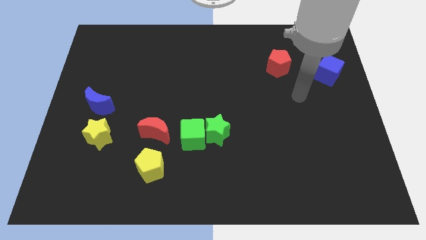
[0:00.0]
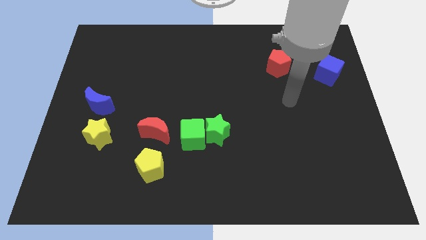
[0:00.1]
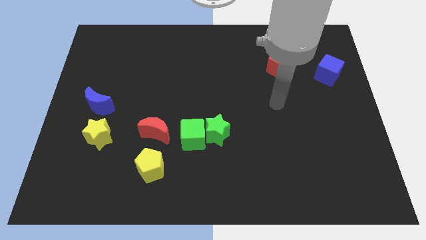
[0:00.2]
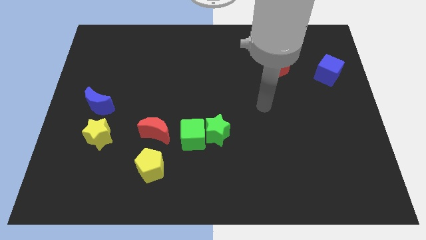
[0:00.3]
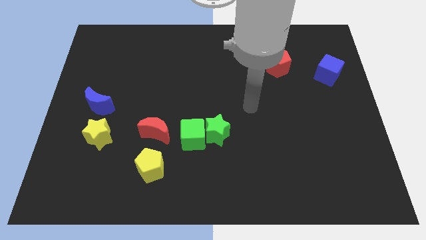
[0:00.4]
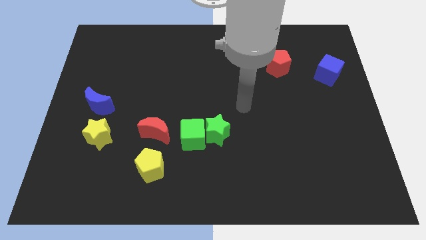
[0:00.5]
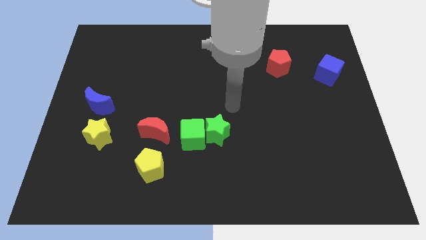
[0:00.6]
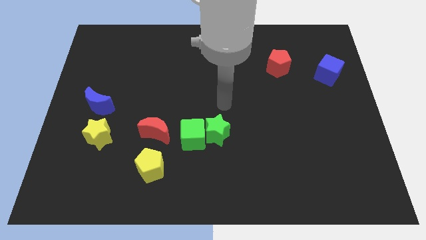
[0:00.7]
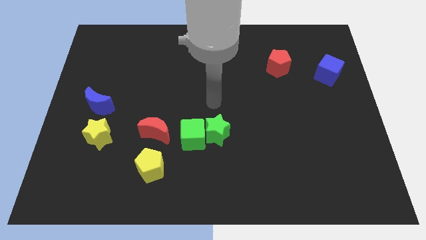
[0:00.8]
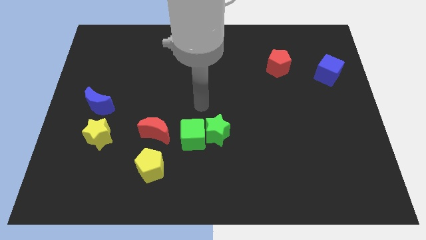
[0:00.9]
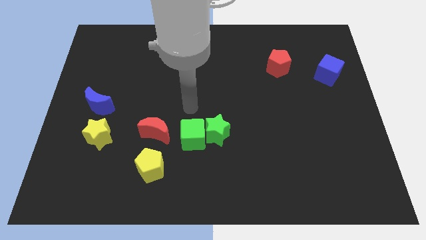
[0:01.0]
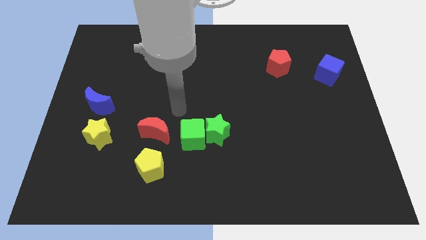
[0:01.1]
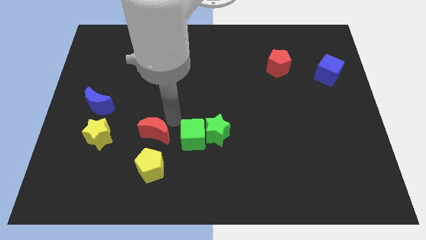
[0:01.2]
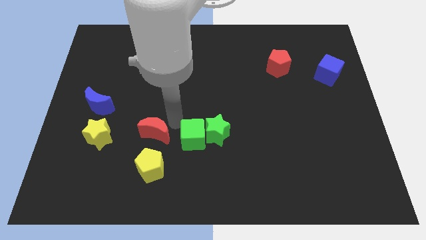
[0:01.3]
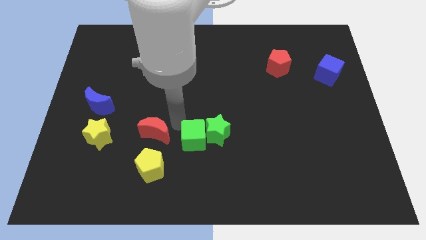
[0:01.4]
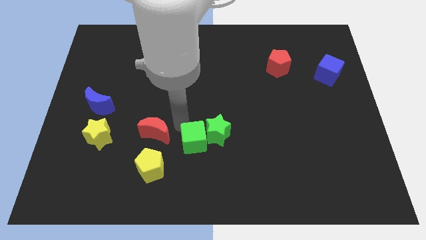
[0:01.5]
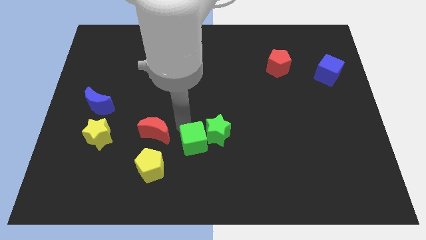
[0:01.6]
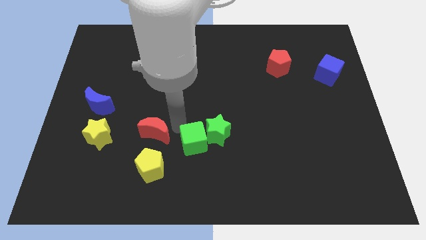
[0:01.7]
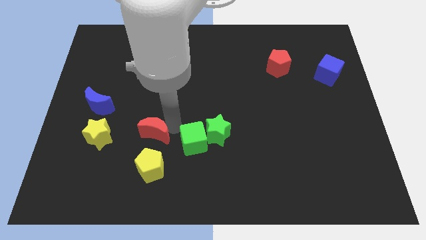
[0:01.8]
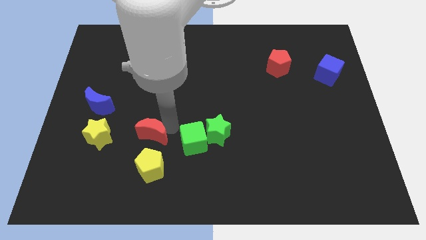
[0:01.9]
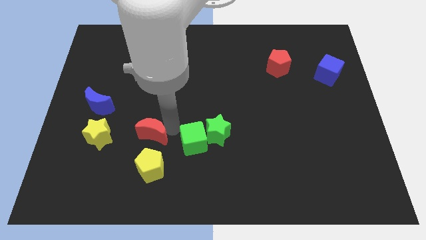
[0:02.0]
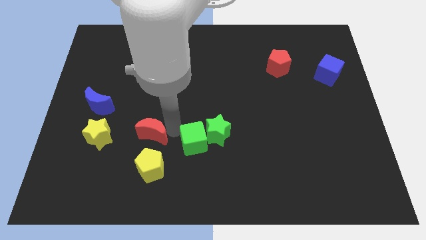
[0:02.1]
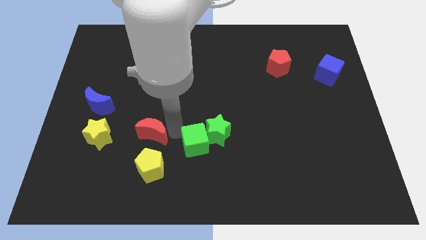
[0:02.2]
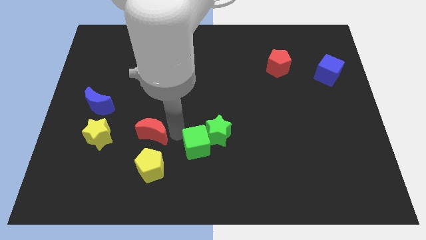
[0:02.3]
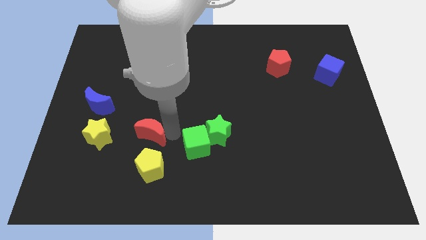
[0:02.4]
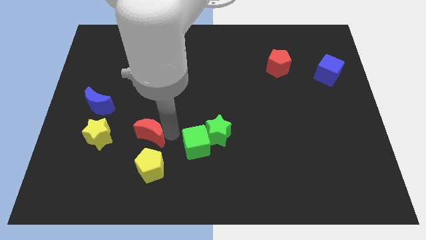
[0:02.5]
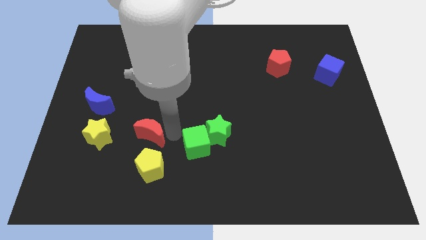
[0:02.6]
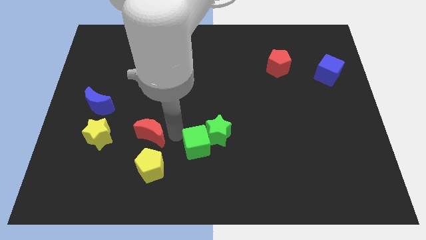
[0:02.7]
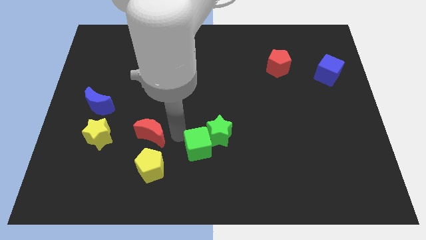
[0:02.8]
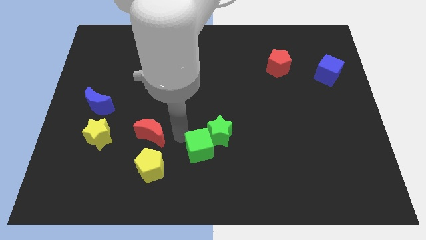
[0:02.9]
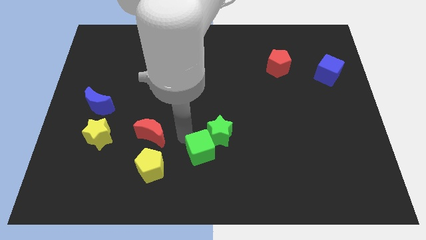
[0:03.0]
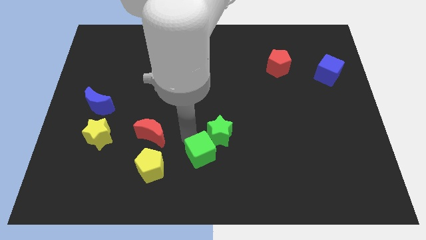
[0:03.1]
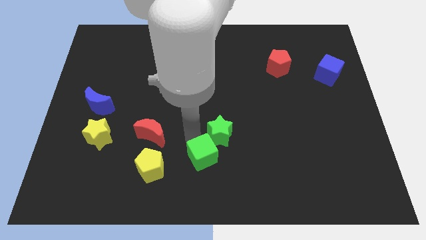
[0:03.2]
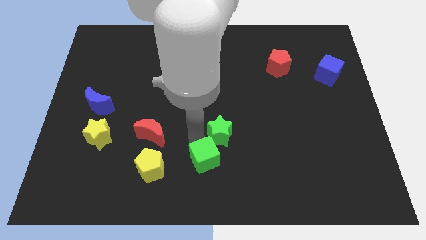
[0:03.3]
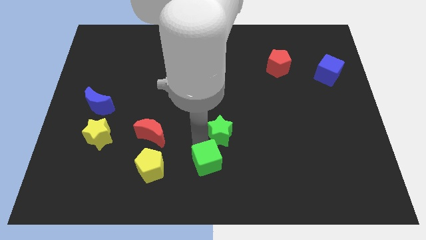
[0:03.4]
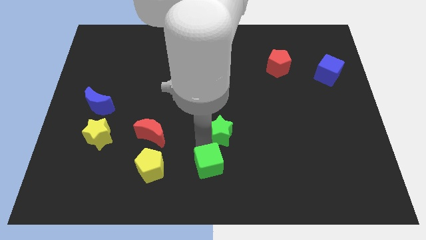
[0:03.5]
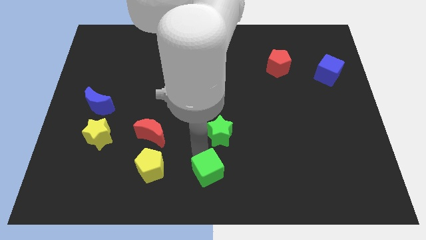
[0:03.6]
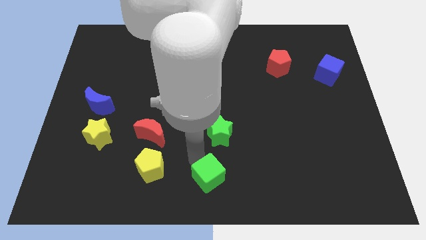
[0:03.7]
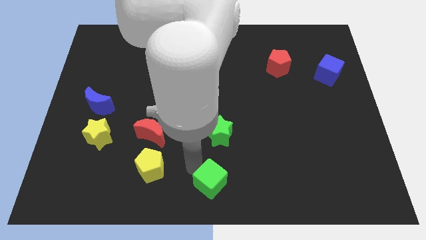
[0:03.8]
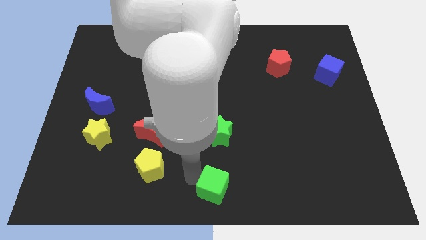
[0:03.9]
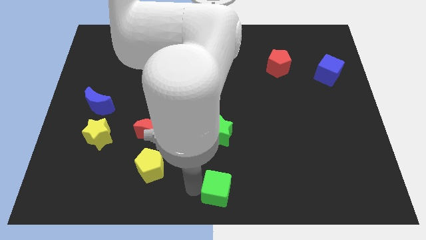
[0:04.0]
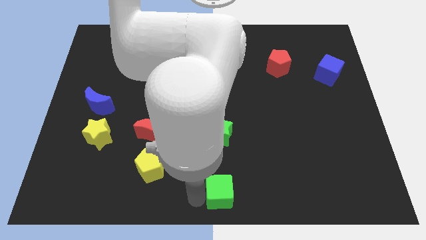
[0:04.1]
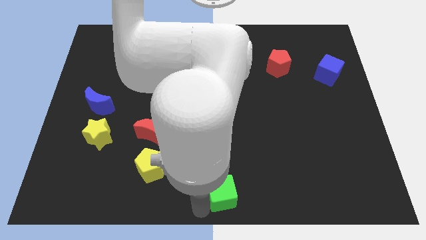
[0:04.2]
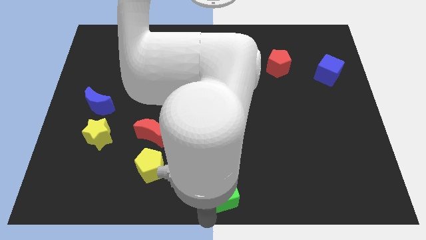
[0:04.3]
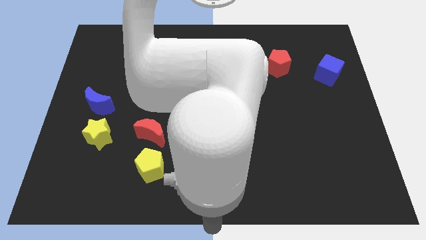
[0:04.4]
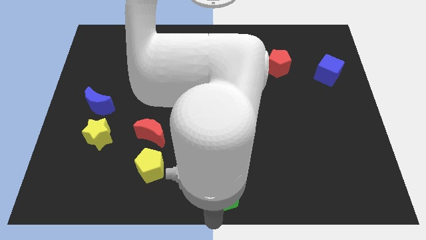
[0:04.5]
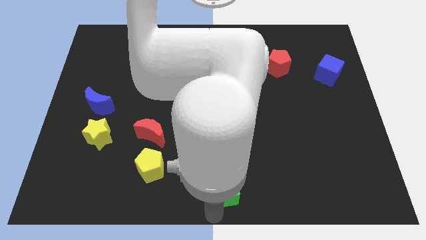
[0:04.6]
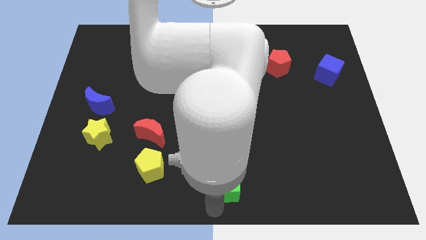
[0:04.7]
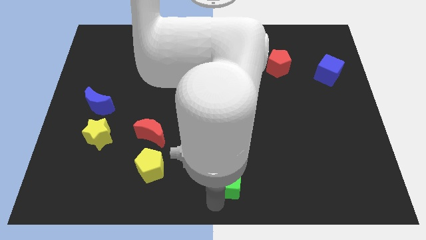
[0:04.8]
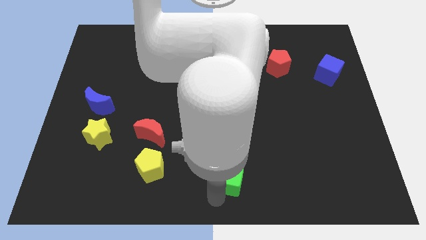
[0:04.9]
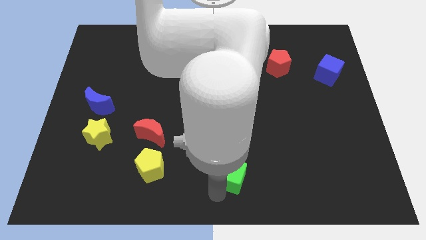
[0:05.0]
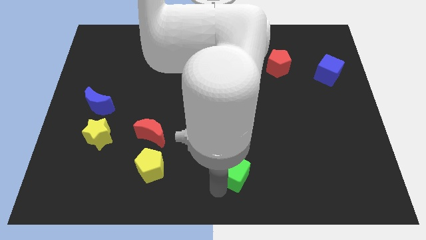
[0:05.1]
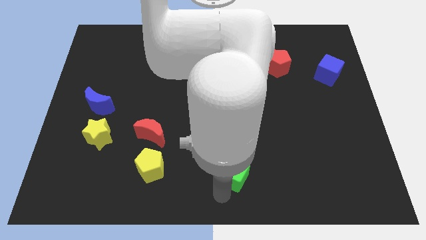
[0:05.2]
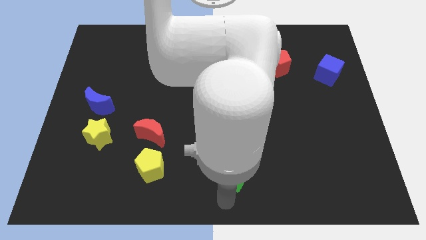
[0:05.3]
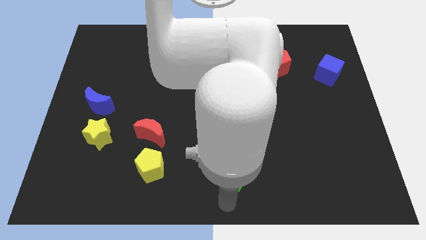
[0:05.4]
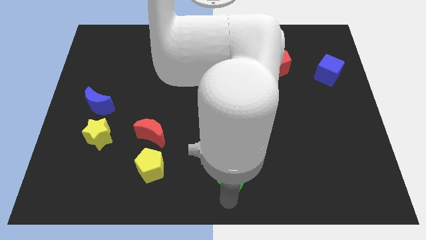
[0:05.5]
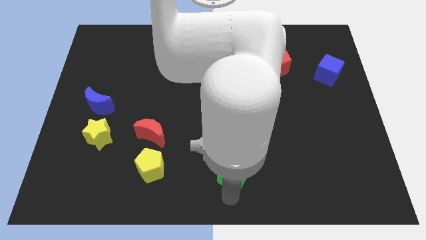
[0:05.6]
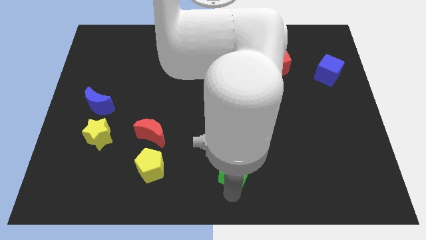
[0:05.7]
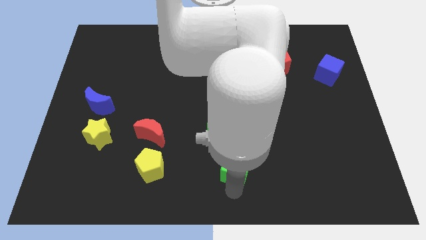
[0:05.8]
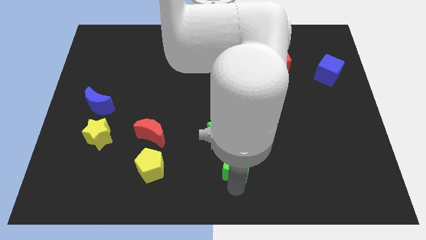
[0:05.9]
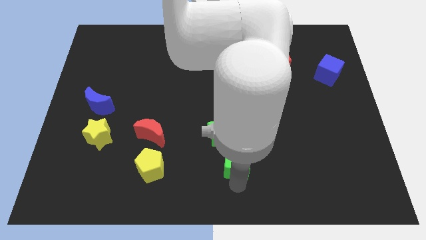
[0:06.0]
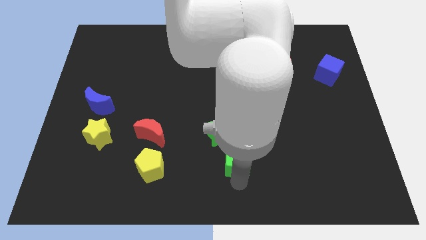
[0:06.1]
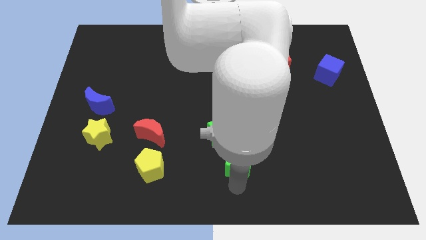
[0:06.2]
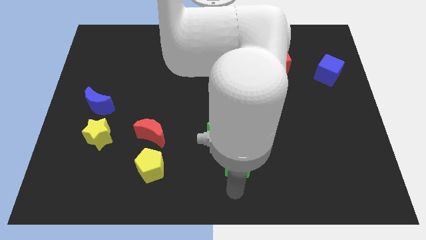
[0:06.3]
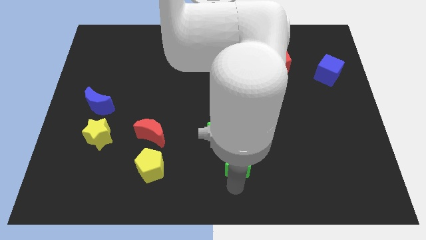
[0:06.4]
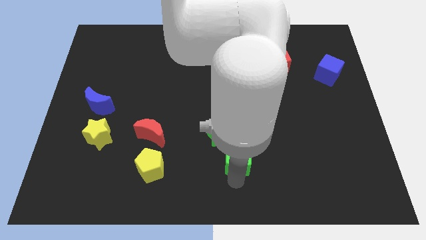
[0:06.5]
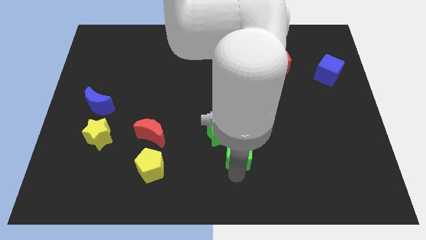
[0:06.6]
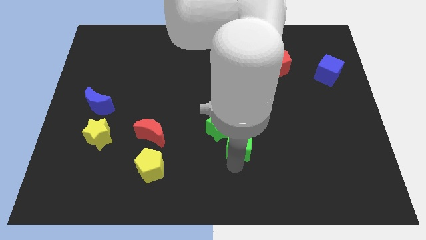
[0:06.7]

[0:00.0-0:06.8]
push the green cube right of the green star
